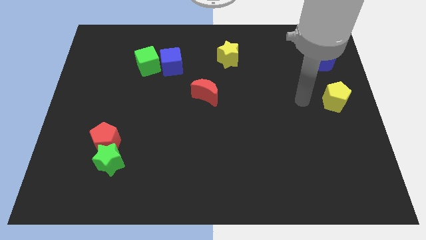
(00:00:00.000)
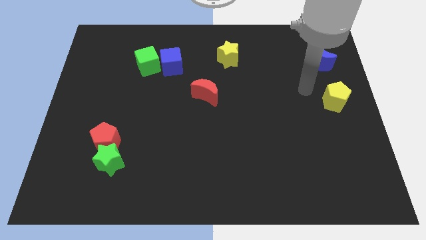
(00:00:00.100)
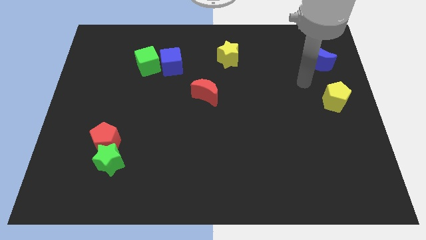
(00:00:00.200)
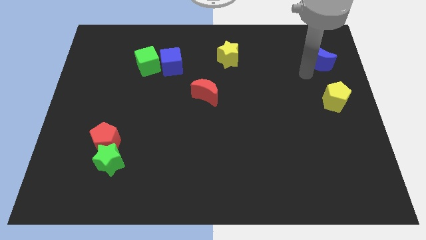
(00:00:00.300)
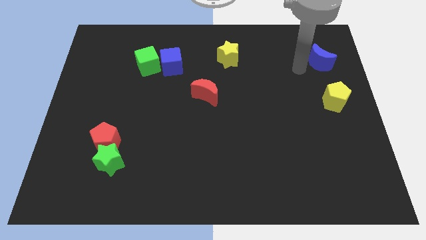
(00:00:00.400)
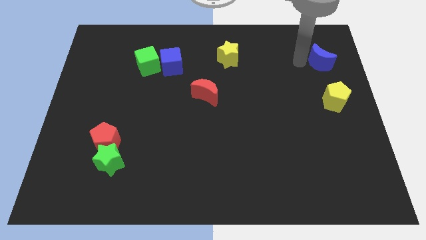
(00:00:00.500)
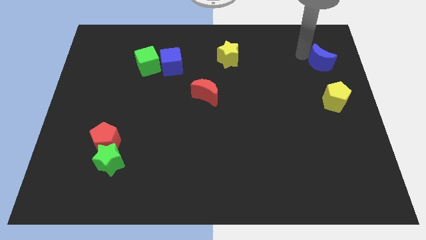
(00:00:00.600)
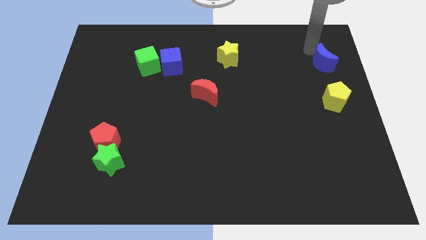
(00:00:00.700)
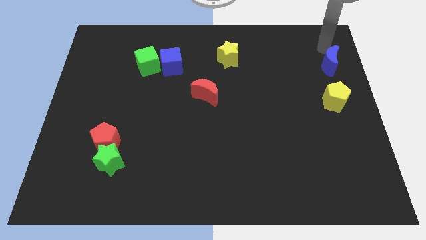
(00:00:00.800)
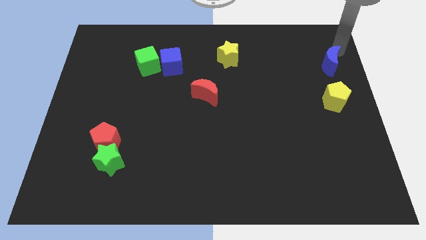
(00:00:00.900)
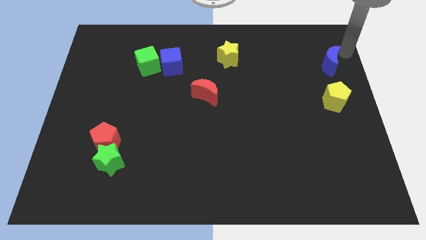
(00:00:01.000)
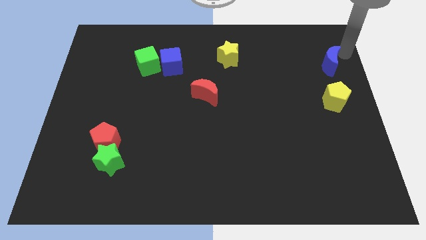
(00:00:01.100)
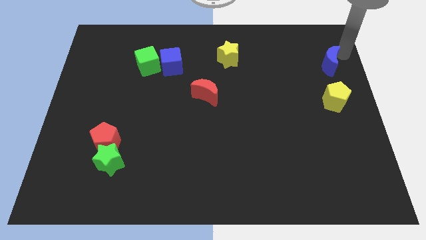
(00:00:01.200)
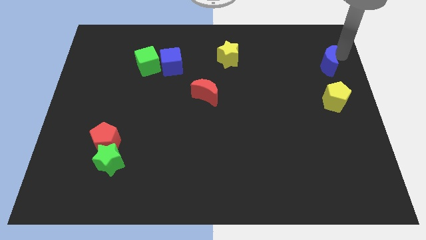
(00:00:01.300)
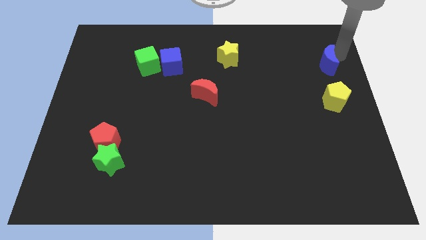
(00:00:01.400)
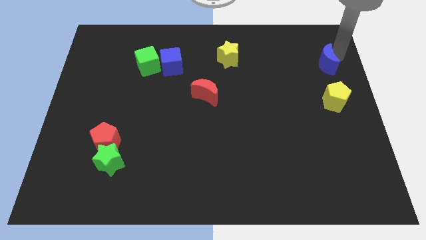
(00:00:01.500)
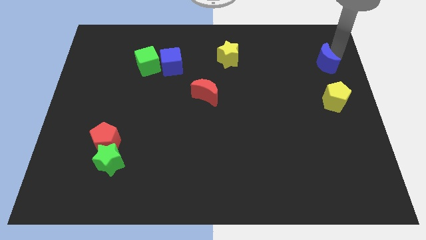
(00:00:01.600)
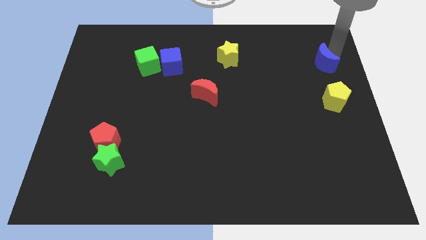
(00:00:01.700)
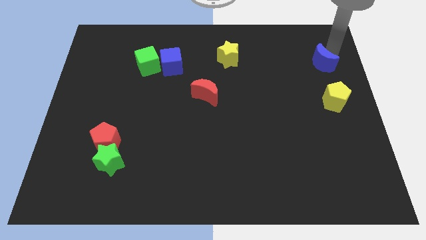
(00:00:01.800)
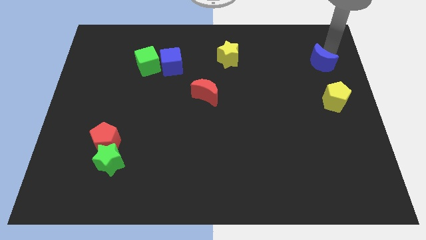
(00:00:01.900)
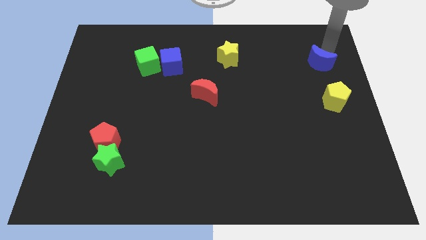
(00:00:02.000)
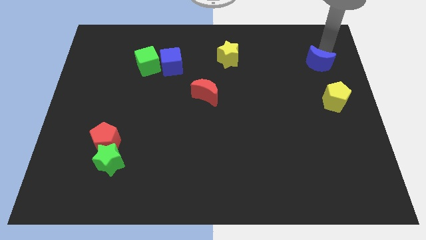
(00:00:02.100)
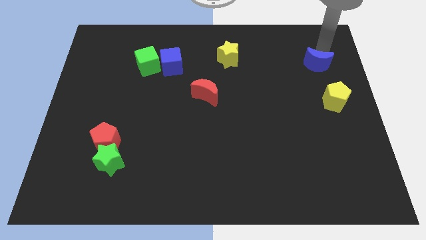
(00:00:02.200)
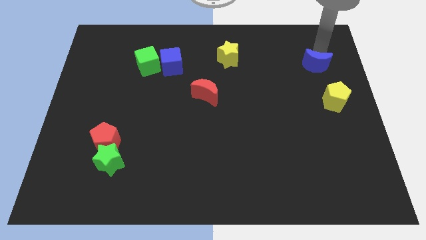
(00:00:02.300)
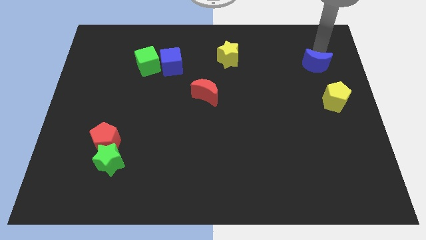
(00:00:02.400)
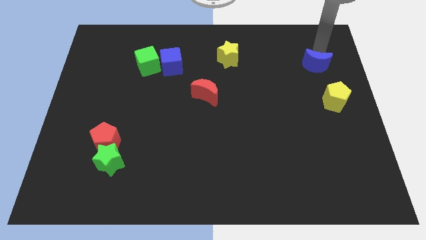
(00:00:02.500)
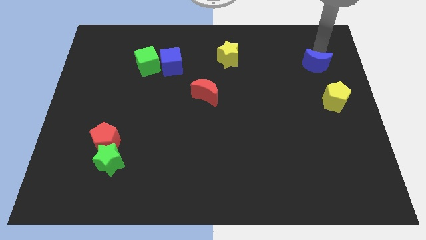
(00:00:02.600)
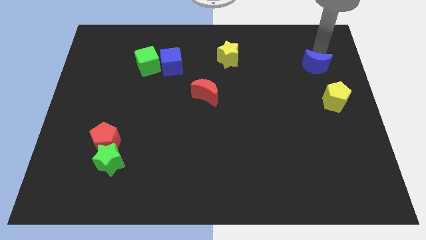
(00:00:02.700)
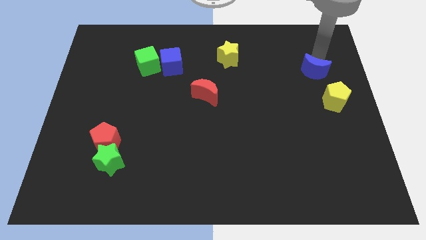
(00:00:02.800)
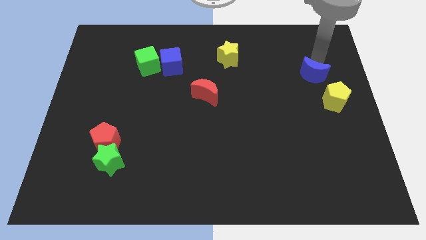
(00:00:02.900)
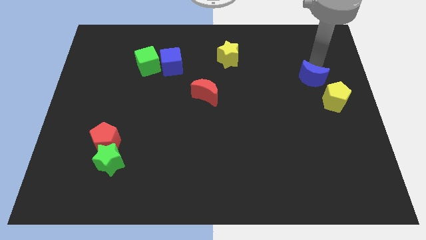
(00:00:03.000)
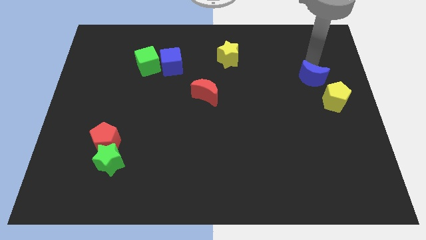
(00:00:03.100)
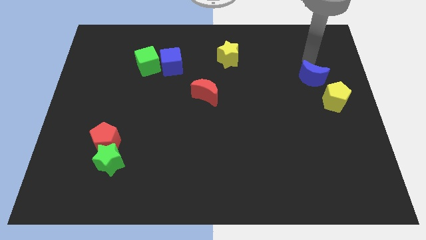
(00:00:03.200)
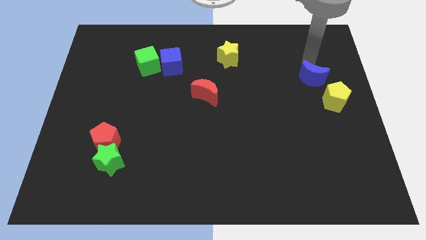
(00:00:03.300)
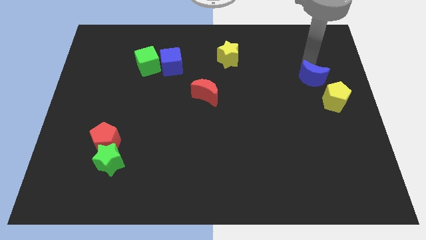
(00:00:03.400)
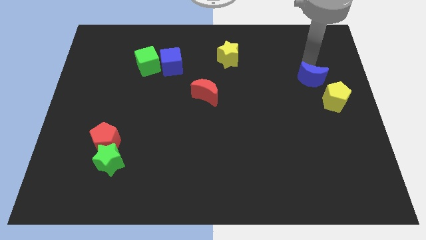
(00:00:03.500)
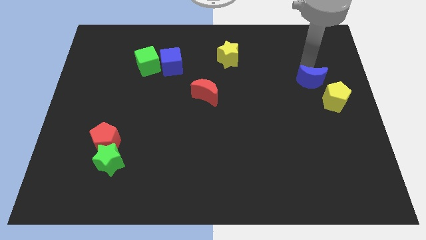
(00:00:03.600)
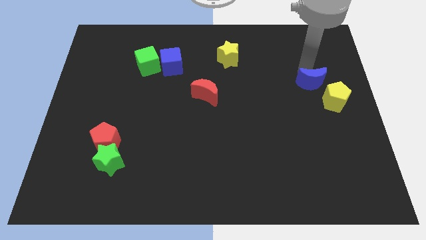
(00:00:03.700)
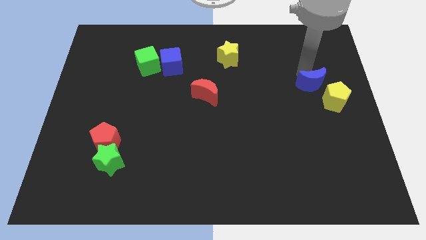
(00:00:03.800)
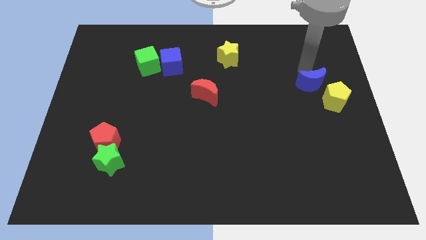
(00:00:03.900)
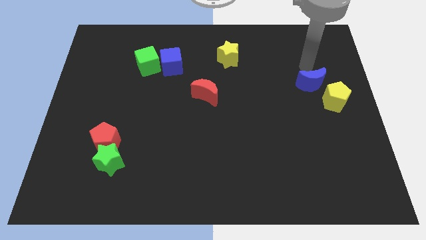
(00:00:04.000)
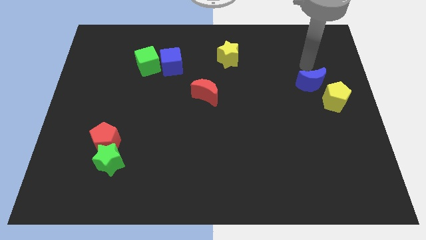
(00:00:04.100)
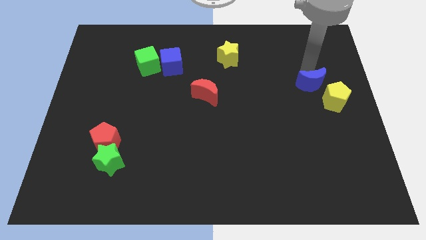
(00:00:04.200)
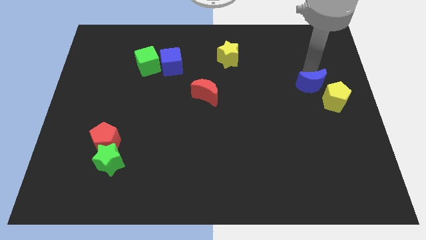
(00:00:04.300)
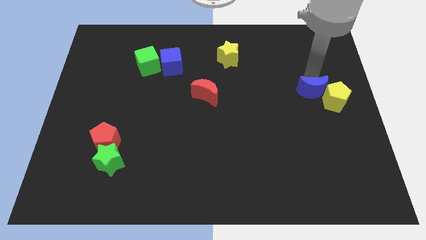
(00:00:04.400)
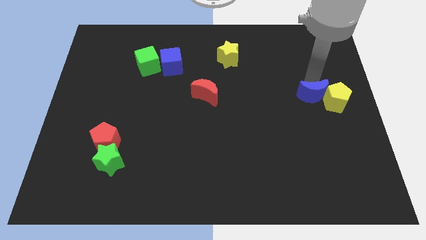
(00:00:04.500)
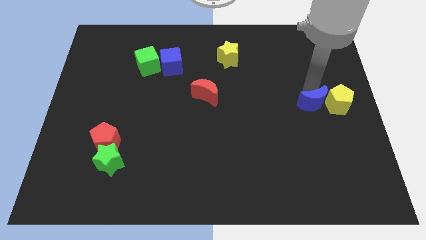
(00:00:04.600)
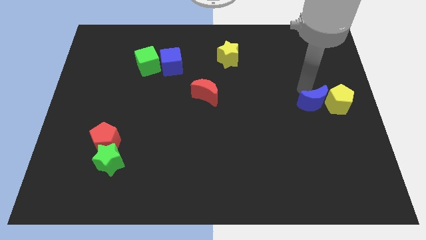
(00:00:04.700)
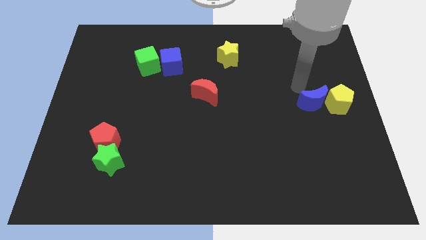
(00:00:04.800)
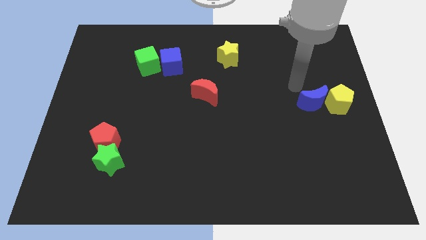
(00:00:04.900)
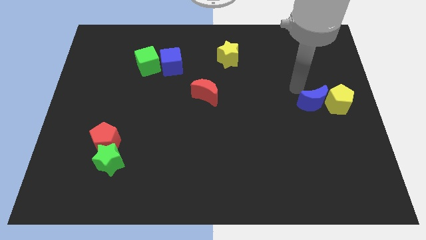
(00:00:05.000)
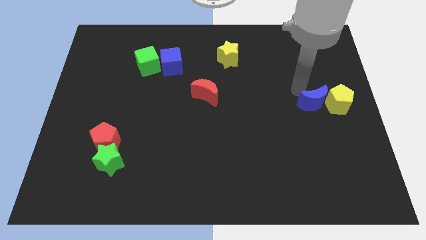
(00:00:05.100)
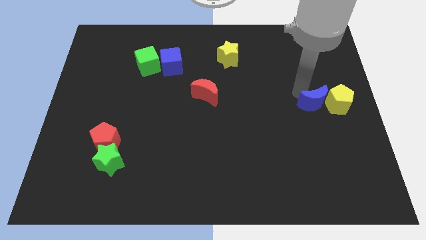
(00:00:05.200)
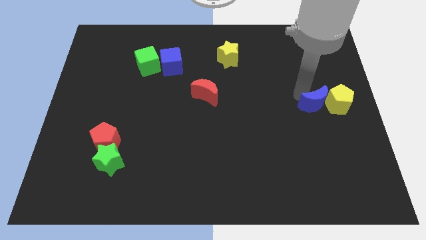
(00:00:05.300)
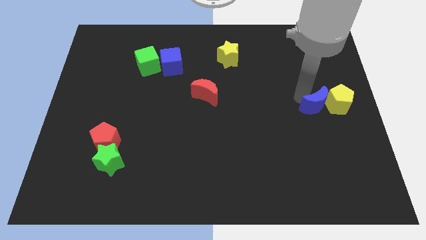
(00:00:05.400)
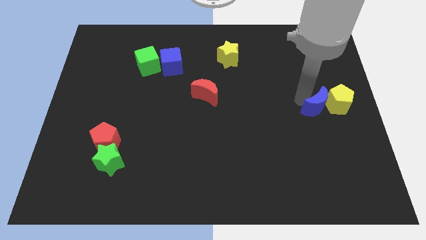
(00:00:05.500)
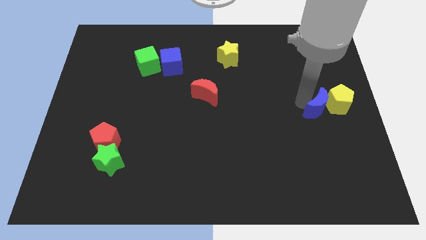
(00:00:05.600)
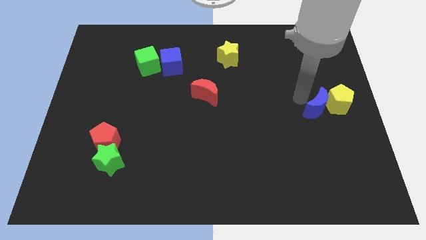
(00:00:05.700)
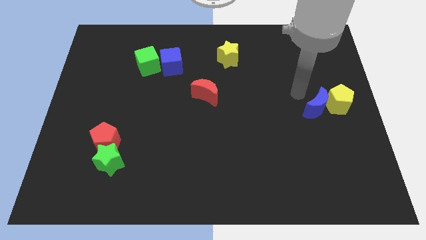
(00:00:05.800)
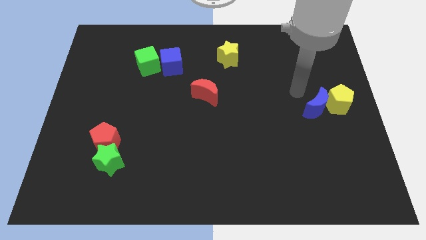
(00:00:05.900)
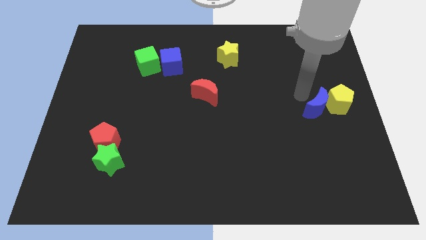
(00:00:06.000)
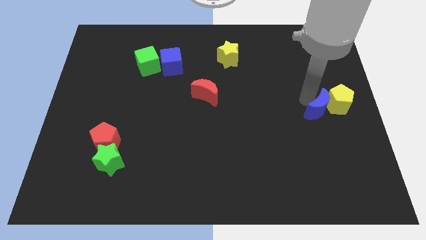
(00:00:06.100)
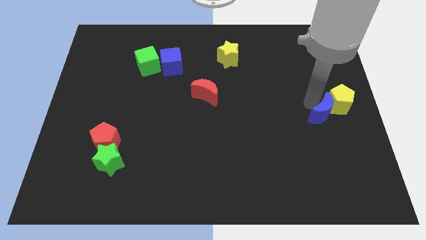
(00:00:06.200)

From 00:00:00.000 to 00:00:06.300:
slide the blue moon to the bottom side of the yellow pentagon

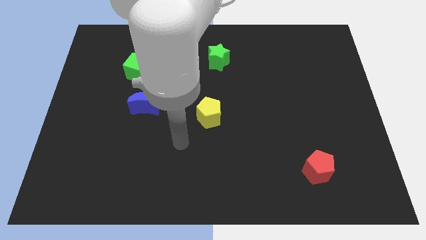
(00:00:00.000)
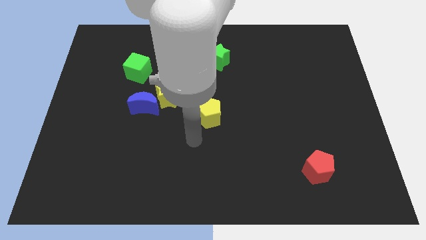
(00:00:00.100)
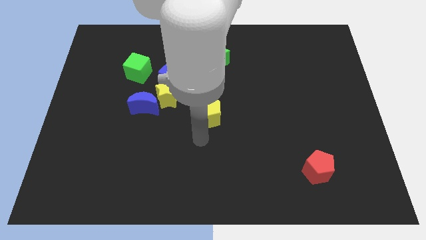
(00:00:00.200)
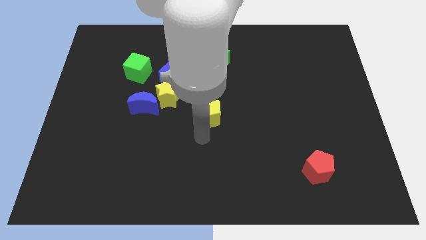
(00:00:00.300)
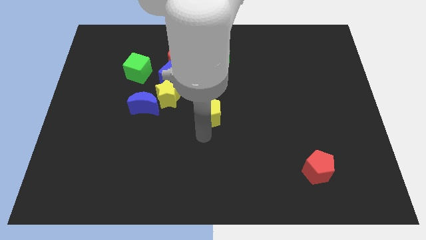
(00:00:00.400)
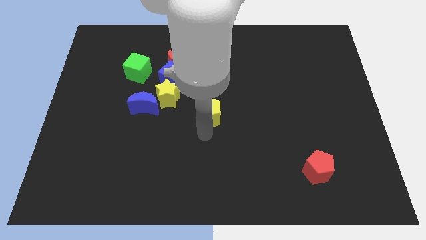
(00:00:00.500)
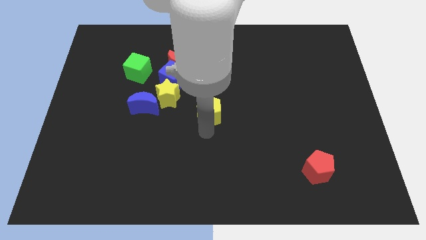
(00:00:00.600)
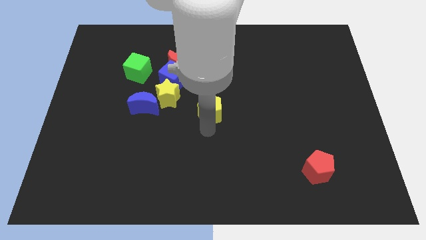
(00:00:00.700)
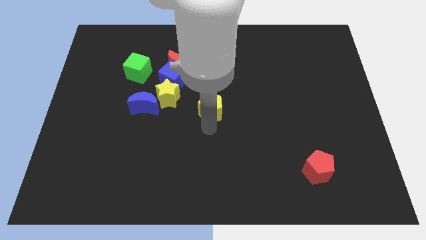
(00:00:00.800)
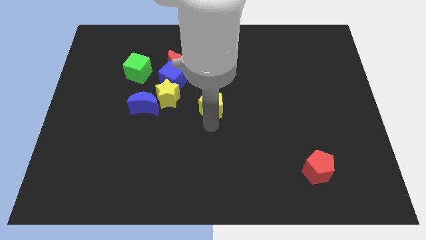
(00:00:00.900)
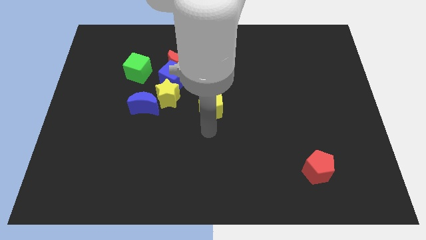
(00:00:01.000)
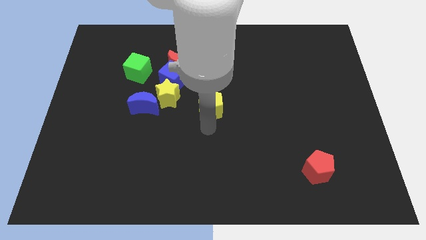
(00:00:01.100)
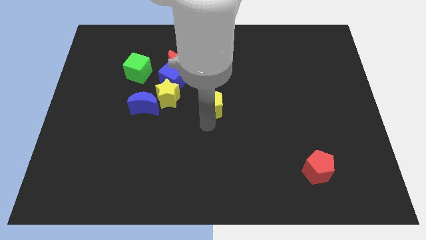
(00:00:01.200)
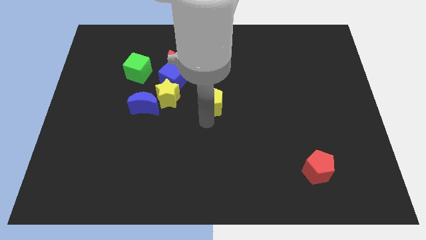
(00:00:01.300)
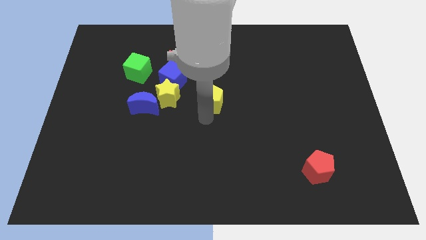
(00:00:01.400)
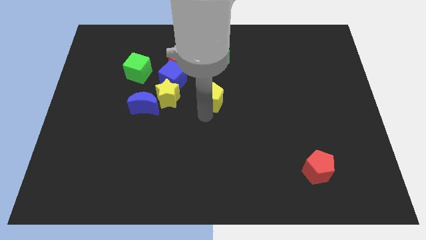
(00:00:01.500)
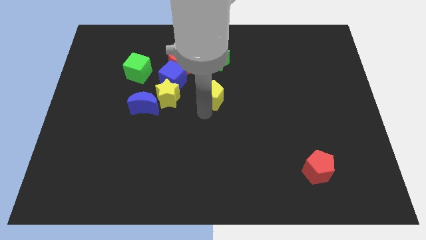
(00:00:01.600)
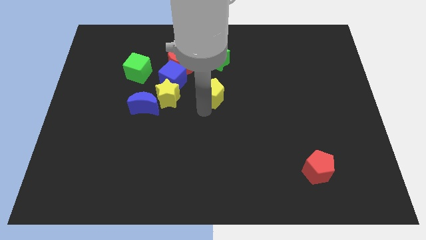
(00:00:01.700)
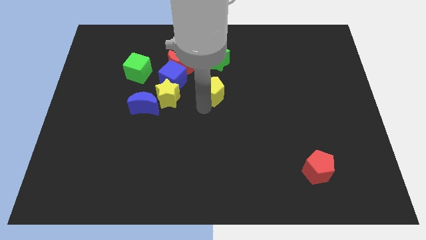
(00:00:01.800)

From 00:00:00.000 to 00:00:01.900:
slide the yellow pentagon just right of the blue cube
